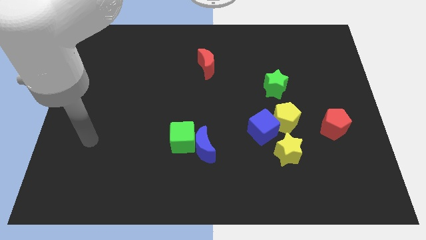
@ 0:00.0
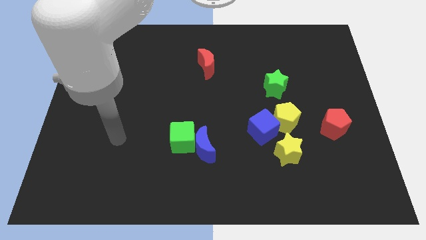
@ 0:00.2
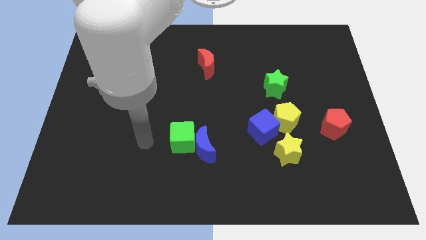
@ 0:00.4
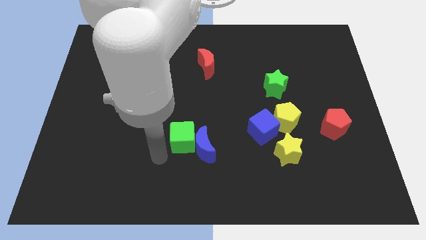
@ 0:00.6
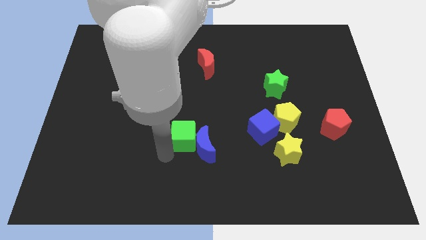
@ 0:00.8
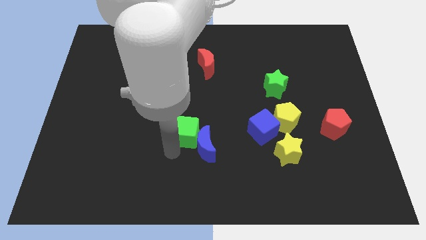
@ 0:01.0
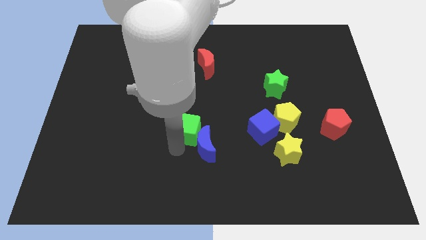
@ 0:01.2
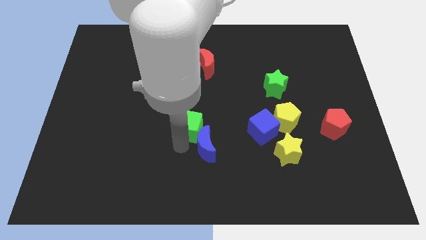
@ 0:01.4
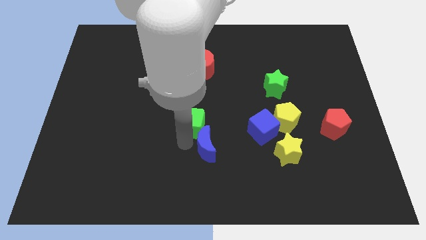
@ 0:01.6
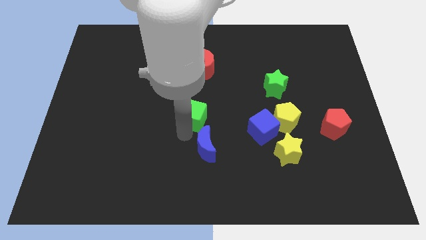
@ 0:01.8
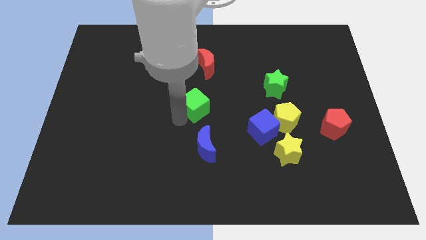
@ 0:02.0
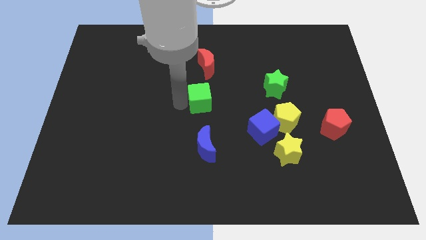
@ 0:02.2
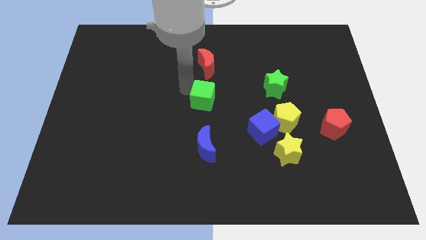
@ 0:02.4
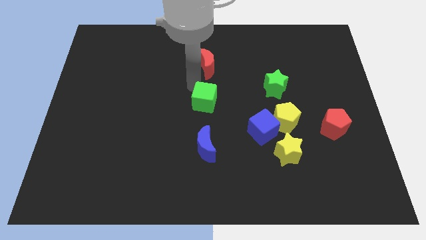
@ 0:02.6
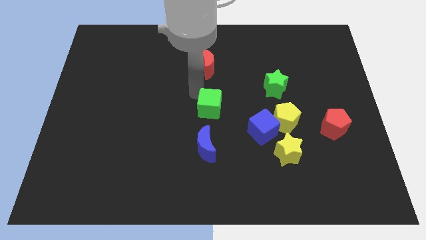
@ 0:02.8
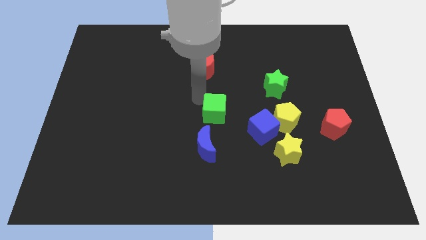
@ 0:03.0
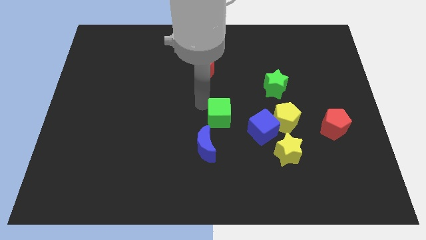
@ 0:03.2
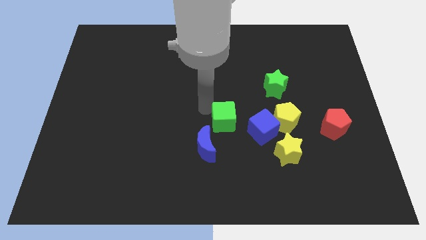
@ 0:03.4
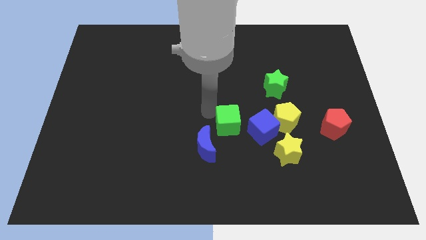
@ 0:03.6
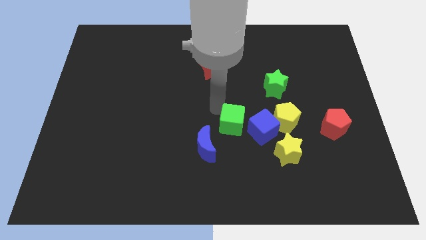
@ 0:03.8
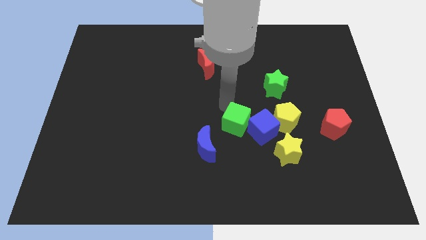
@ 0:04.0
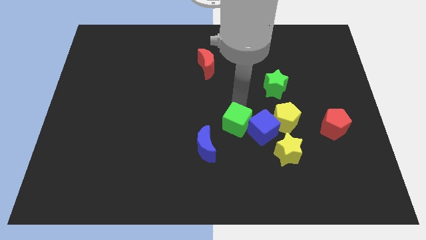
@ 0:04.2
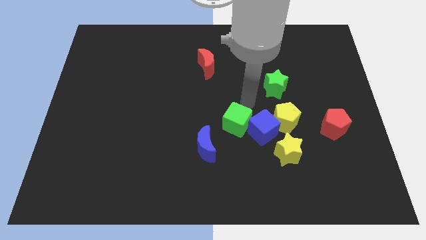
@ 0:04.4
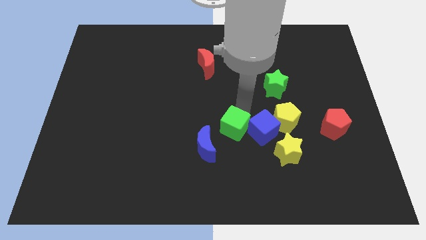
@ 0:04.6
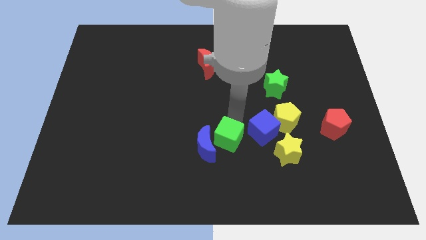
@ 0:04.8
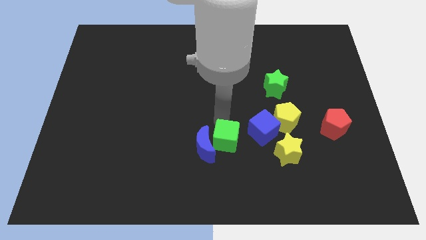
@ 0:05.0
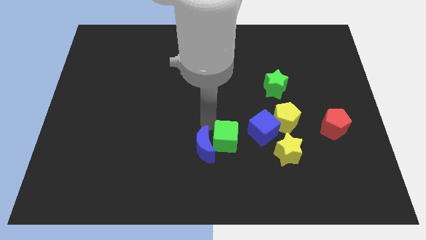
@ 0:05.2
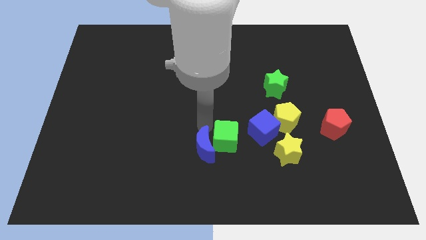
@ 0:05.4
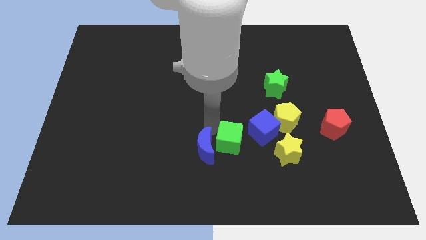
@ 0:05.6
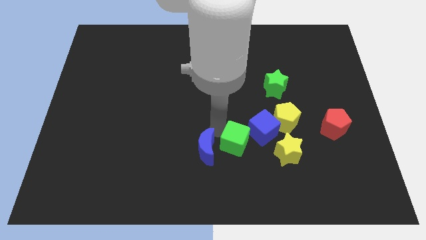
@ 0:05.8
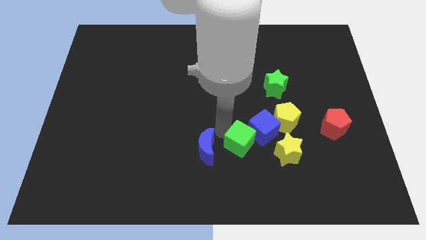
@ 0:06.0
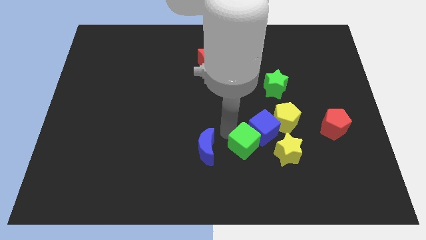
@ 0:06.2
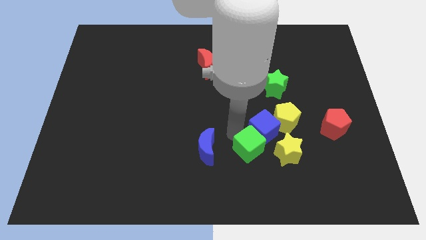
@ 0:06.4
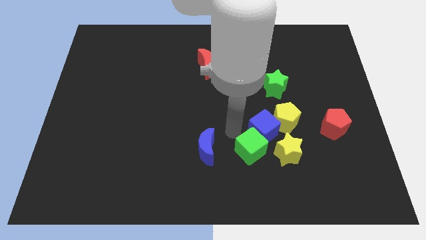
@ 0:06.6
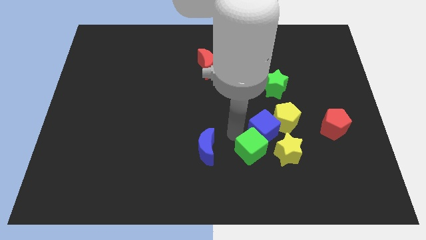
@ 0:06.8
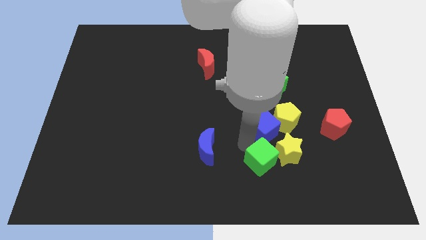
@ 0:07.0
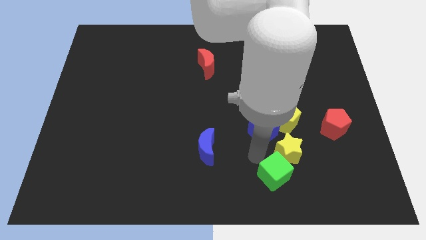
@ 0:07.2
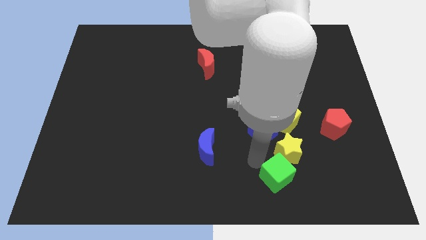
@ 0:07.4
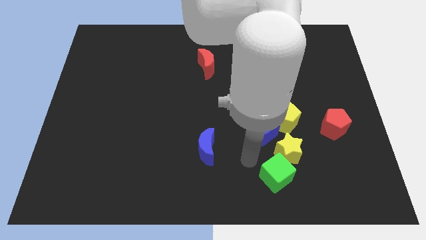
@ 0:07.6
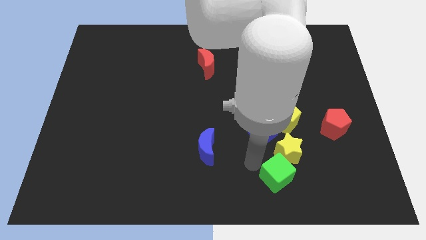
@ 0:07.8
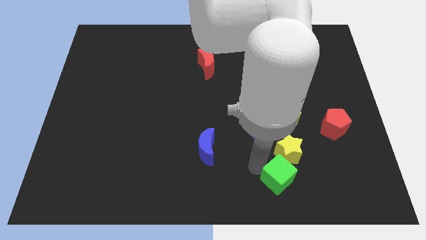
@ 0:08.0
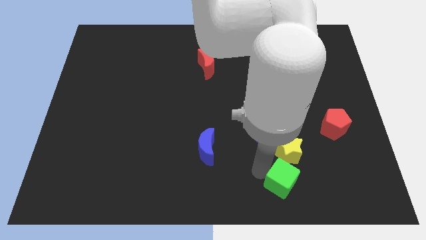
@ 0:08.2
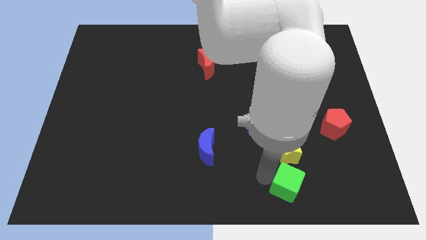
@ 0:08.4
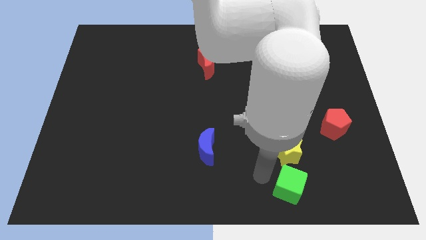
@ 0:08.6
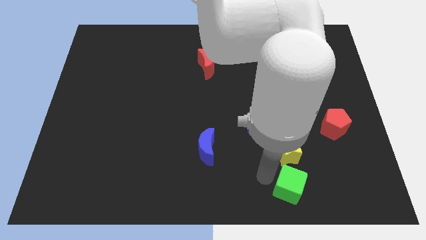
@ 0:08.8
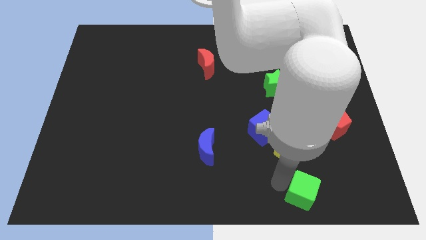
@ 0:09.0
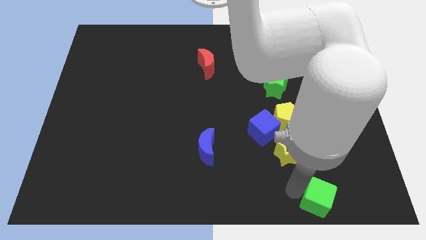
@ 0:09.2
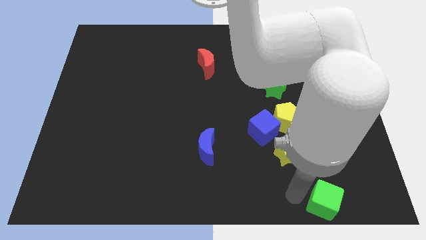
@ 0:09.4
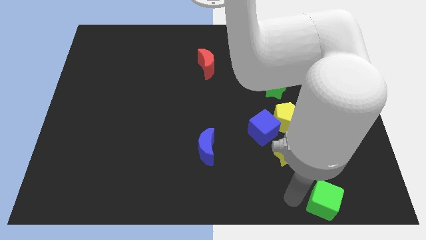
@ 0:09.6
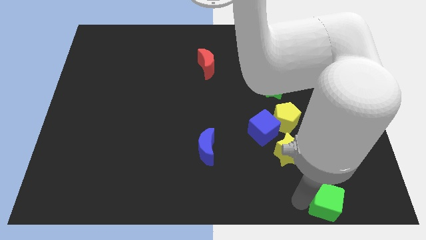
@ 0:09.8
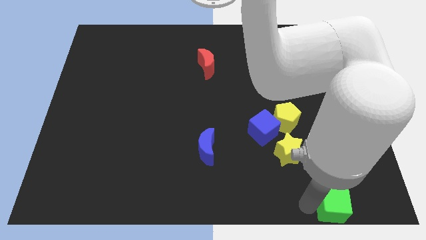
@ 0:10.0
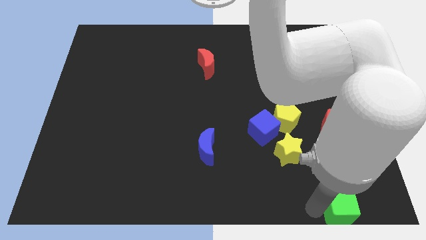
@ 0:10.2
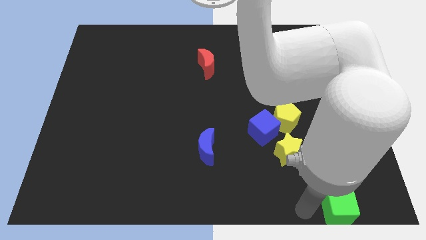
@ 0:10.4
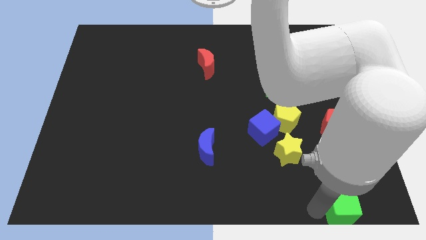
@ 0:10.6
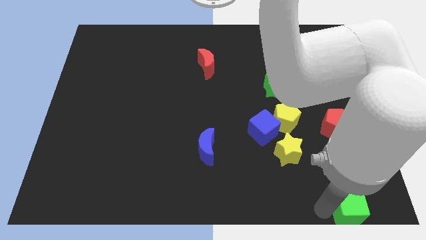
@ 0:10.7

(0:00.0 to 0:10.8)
put the green cube to the bottom right

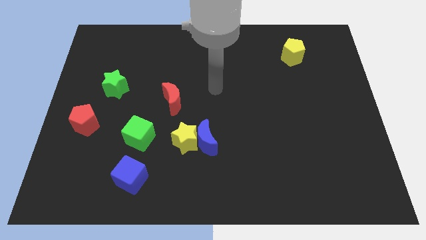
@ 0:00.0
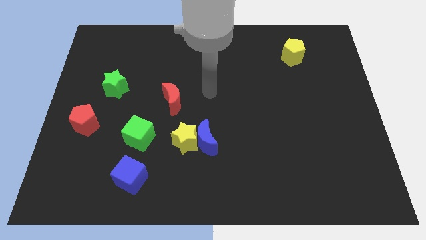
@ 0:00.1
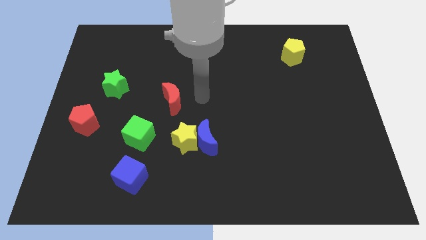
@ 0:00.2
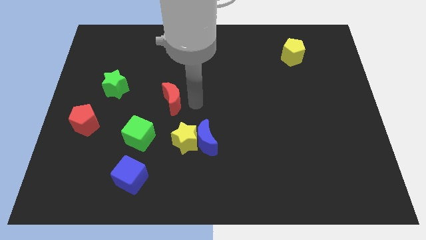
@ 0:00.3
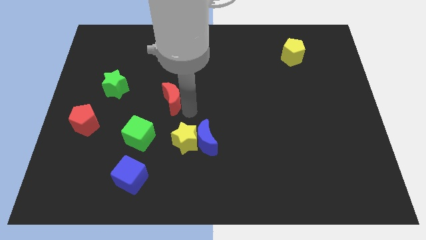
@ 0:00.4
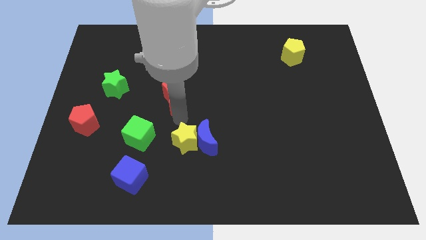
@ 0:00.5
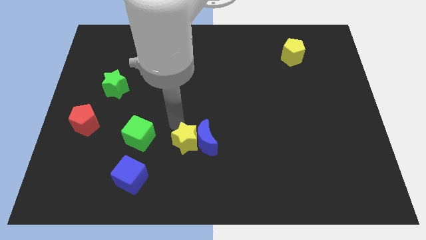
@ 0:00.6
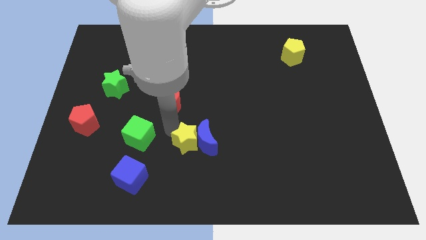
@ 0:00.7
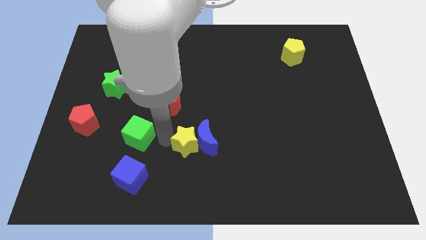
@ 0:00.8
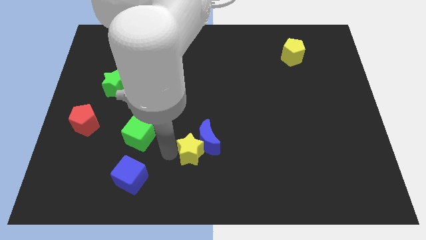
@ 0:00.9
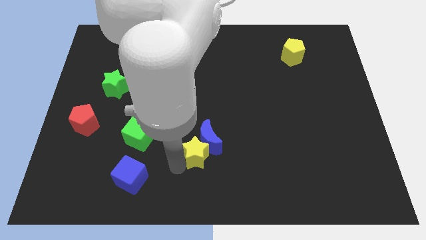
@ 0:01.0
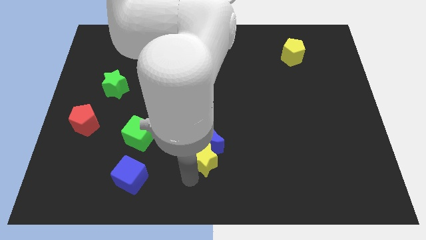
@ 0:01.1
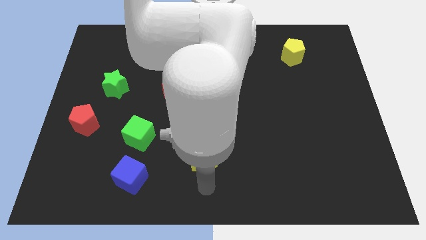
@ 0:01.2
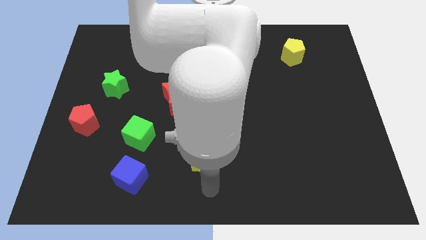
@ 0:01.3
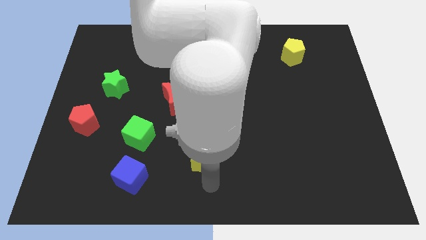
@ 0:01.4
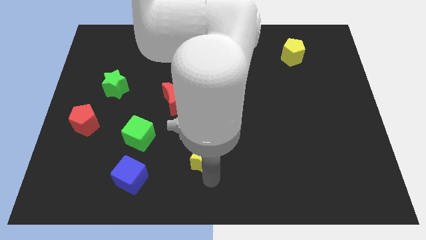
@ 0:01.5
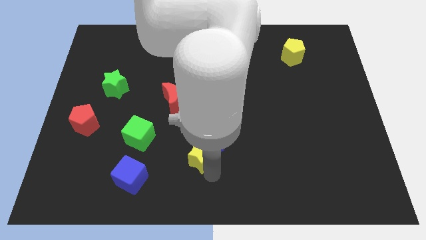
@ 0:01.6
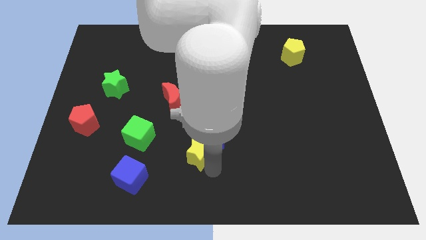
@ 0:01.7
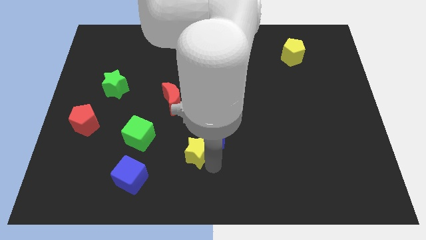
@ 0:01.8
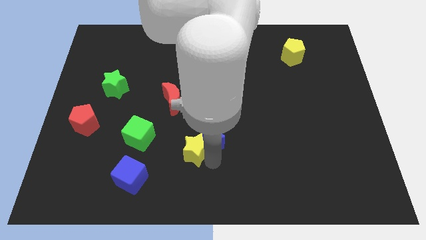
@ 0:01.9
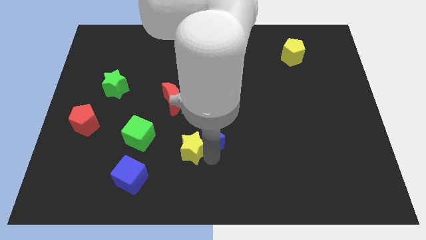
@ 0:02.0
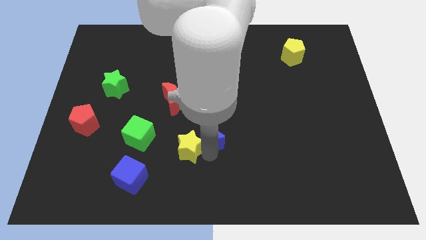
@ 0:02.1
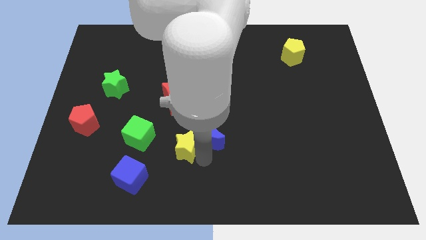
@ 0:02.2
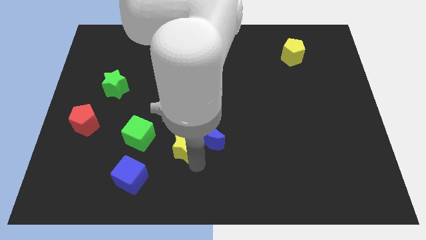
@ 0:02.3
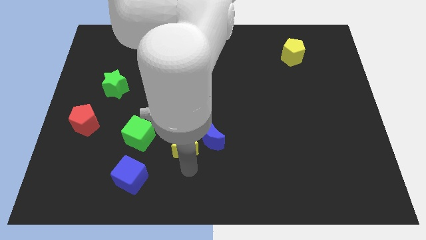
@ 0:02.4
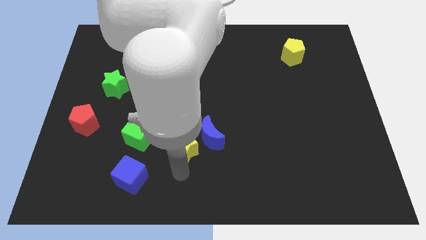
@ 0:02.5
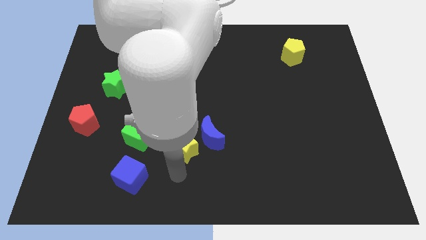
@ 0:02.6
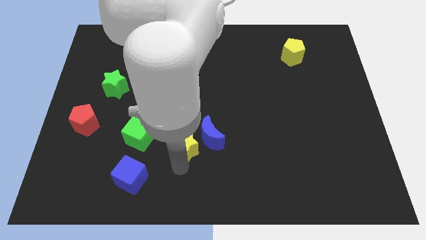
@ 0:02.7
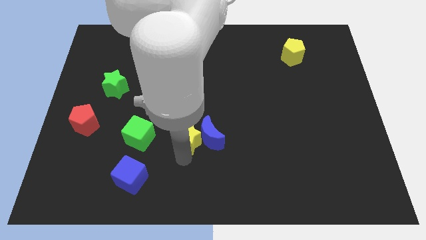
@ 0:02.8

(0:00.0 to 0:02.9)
move the yellow star to the center of the board
